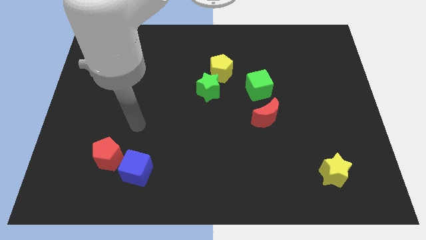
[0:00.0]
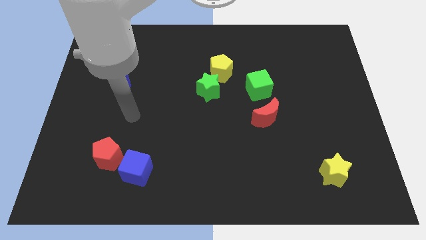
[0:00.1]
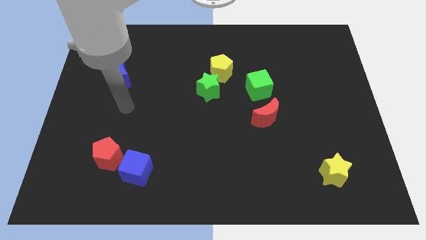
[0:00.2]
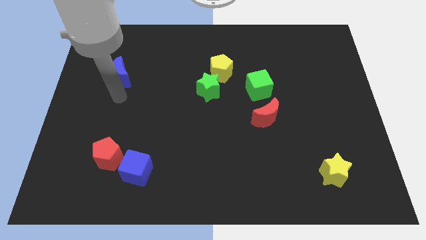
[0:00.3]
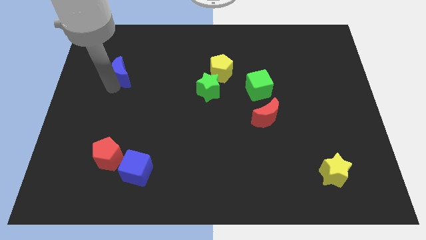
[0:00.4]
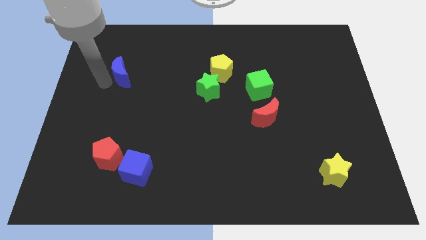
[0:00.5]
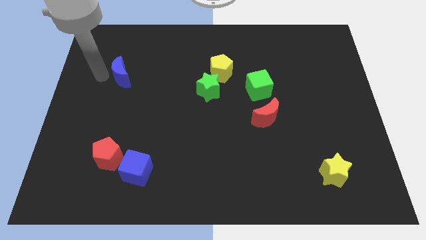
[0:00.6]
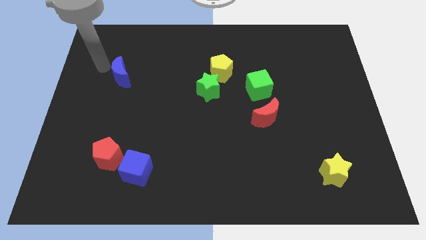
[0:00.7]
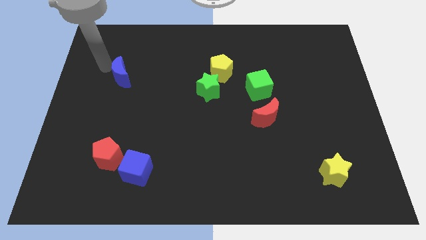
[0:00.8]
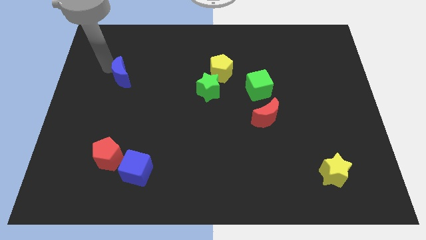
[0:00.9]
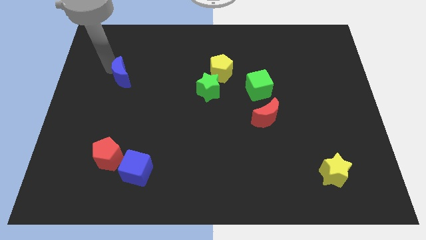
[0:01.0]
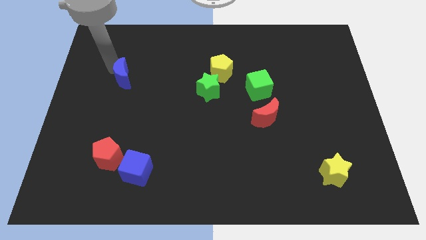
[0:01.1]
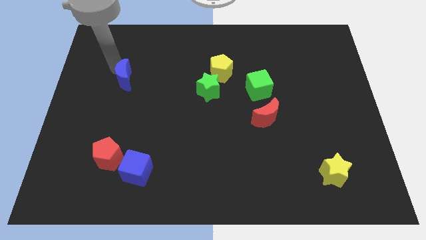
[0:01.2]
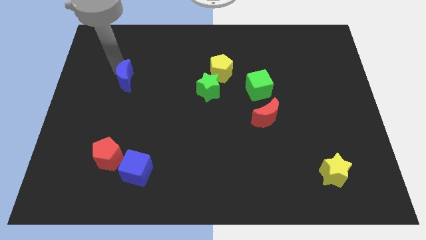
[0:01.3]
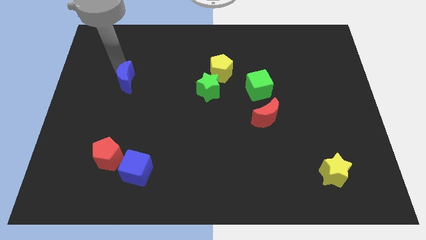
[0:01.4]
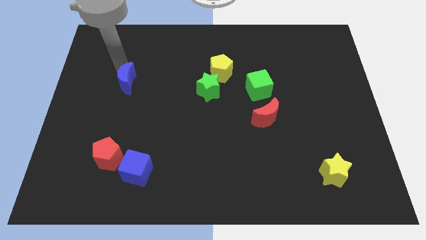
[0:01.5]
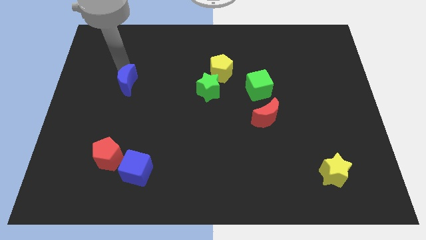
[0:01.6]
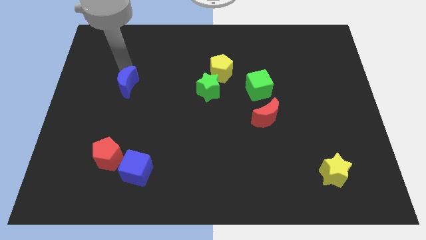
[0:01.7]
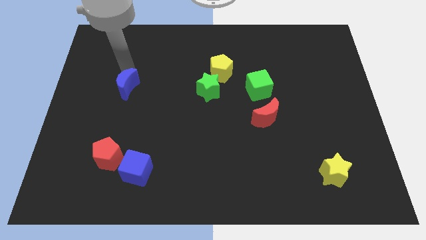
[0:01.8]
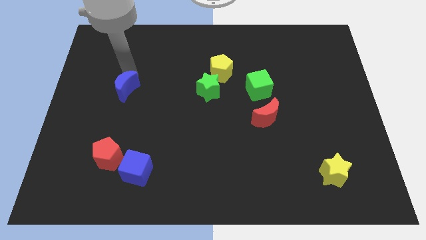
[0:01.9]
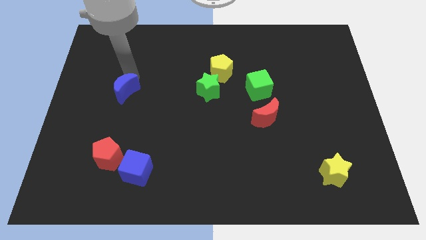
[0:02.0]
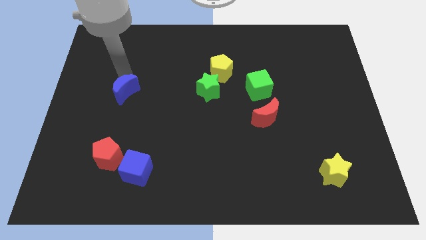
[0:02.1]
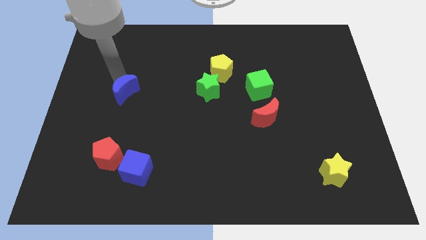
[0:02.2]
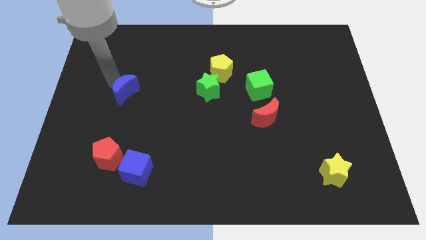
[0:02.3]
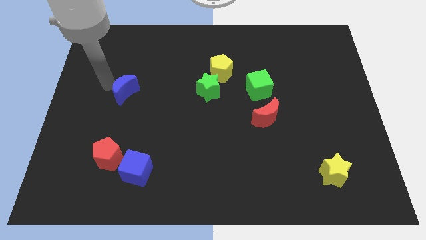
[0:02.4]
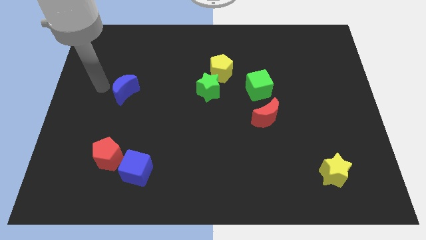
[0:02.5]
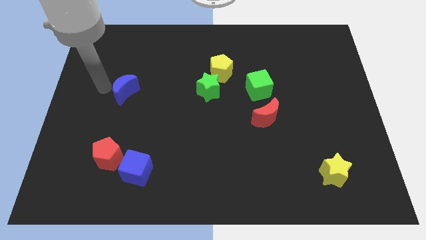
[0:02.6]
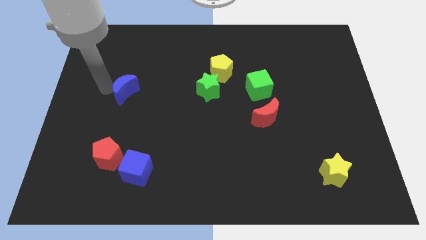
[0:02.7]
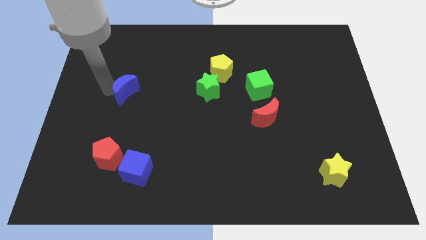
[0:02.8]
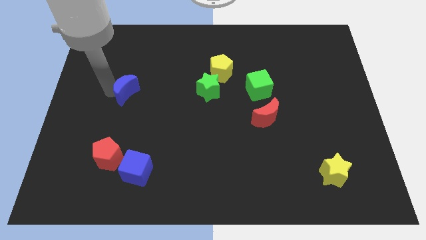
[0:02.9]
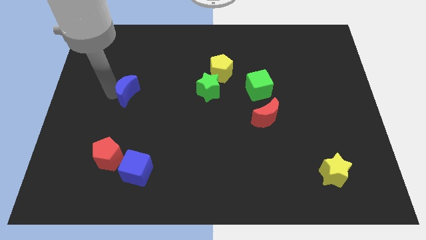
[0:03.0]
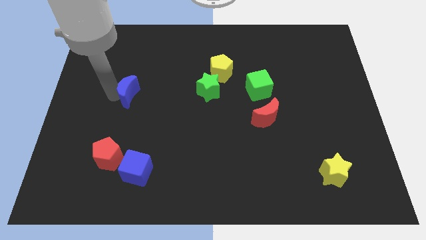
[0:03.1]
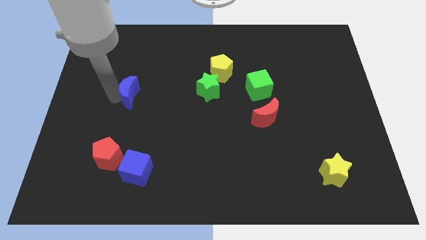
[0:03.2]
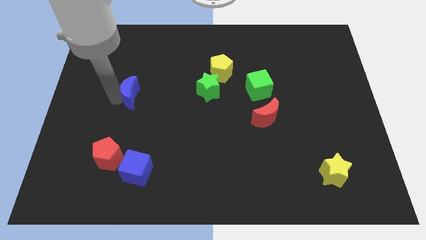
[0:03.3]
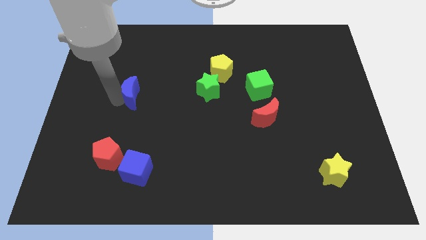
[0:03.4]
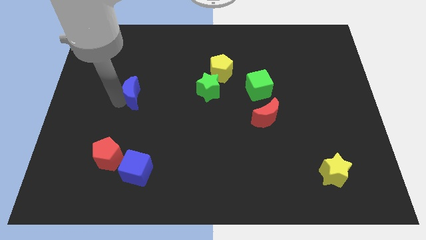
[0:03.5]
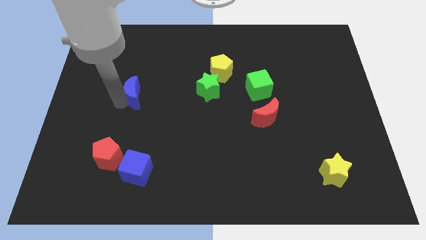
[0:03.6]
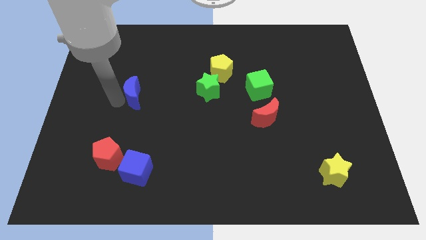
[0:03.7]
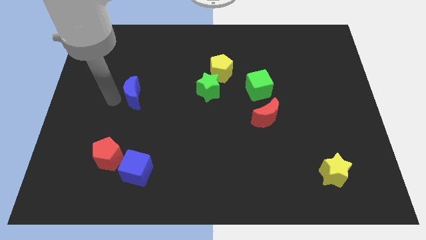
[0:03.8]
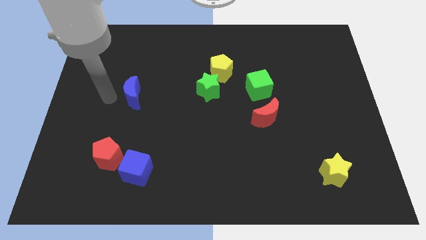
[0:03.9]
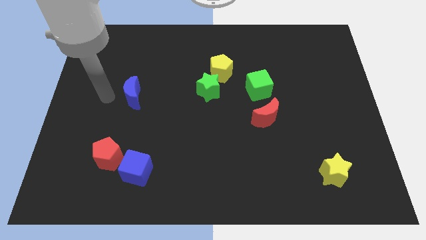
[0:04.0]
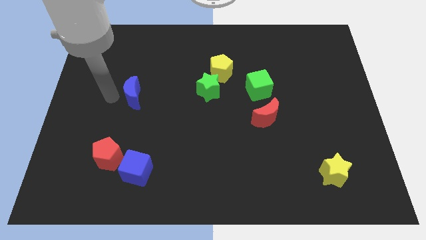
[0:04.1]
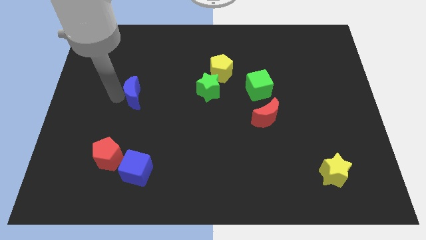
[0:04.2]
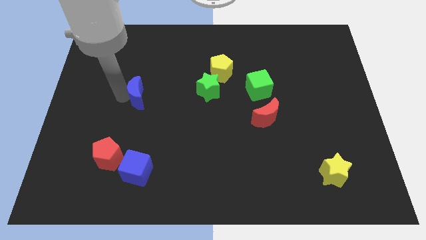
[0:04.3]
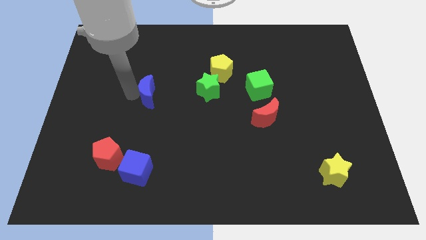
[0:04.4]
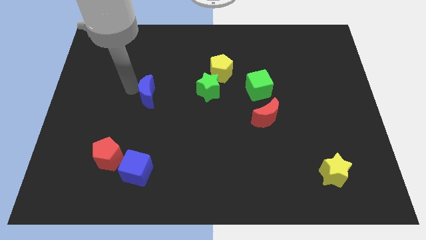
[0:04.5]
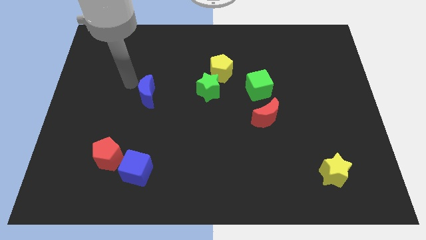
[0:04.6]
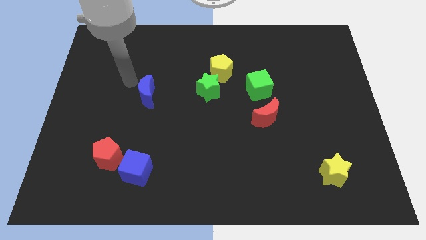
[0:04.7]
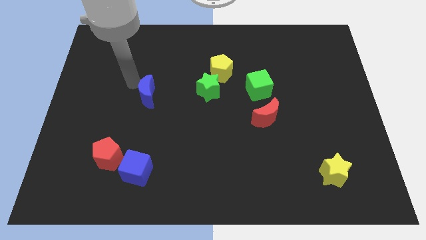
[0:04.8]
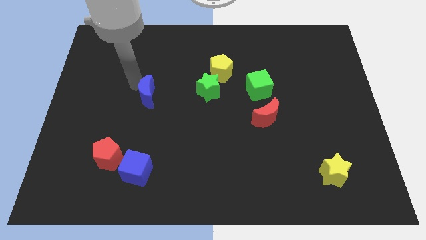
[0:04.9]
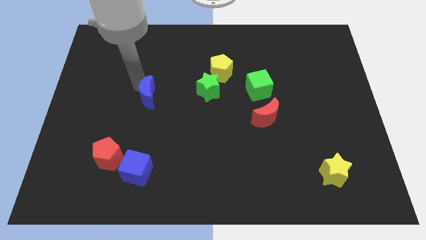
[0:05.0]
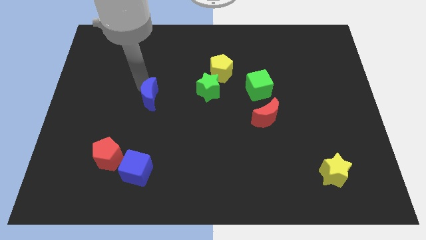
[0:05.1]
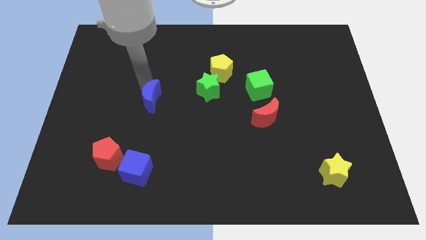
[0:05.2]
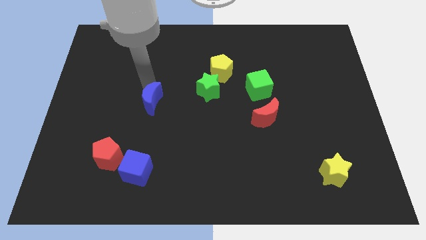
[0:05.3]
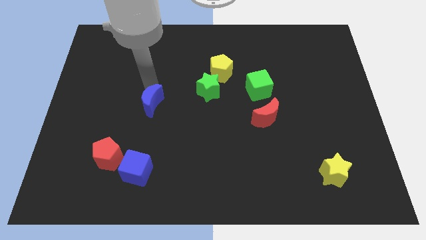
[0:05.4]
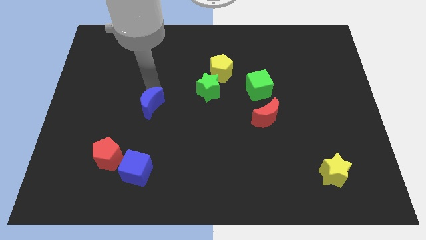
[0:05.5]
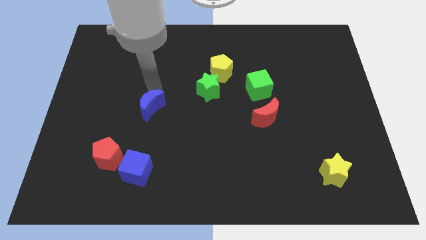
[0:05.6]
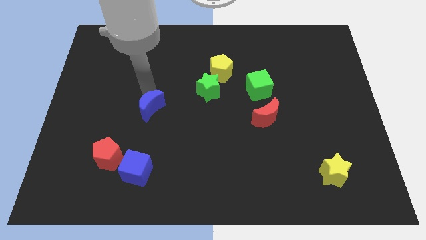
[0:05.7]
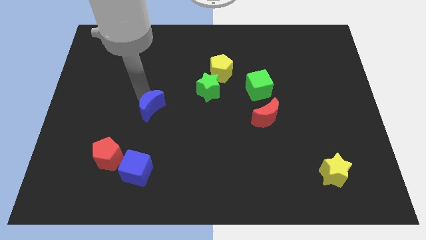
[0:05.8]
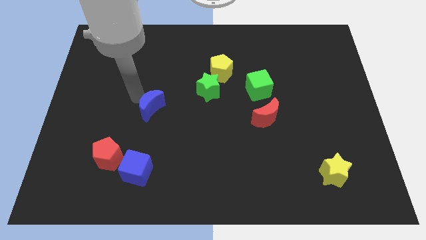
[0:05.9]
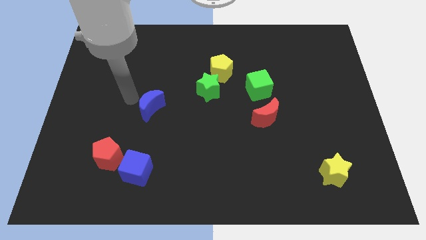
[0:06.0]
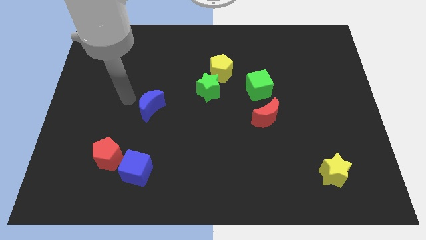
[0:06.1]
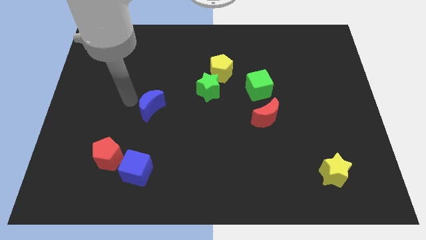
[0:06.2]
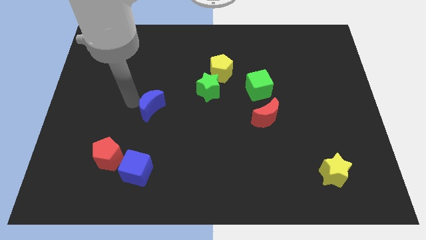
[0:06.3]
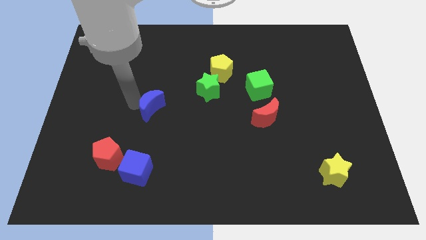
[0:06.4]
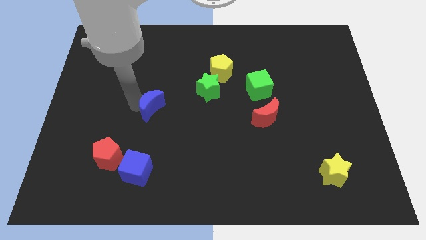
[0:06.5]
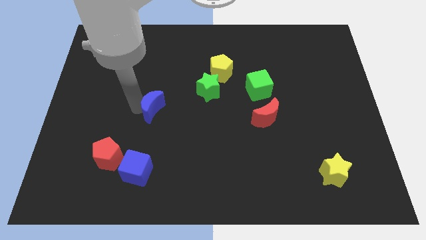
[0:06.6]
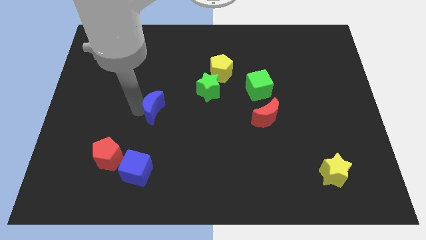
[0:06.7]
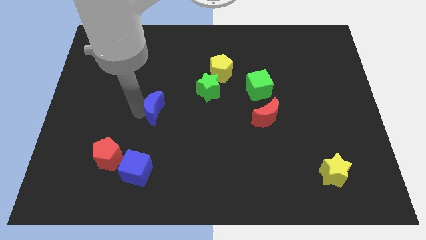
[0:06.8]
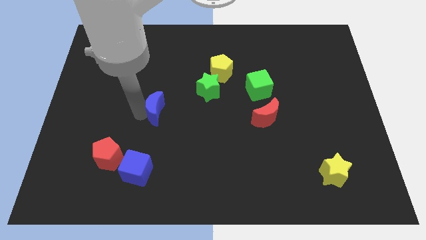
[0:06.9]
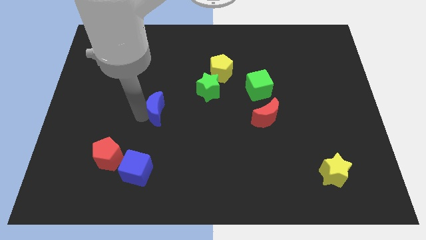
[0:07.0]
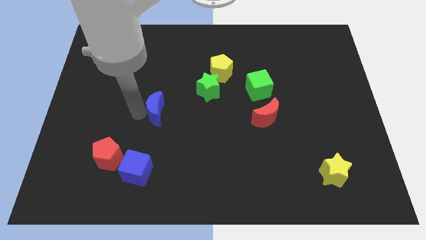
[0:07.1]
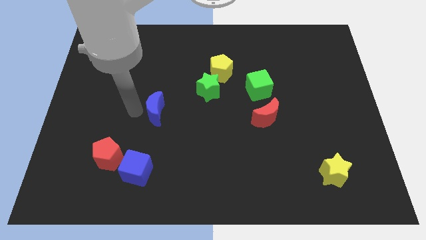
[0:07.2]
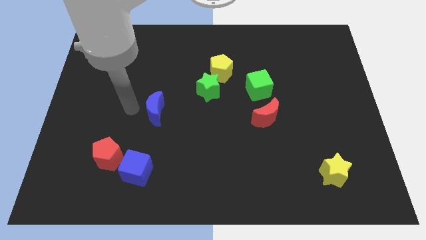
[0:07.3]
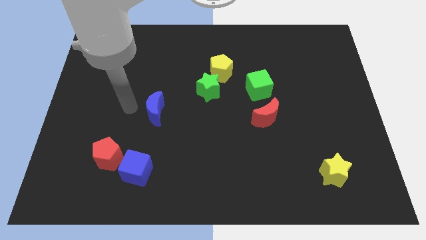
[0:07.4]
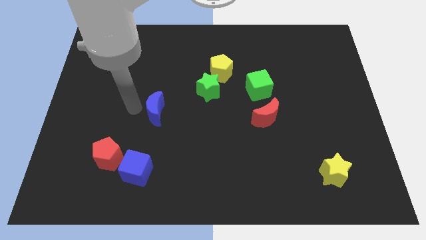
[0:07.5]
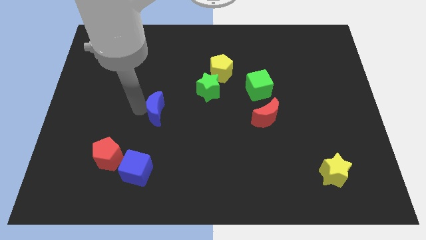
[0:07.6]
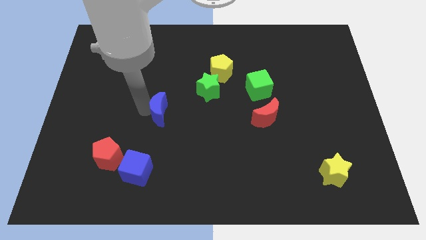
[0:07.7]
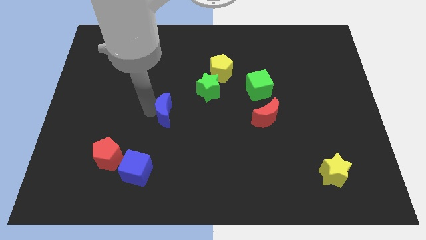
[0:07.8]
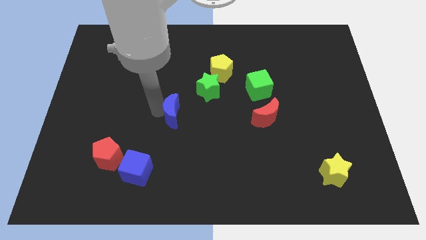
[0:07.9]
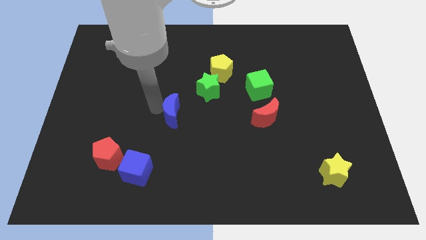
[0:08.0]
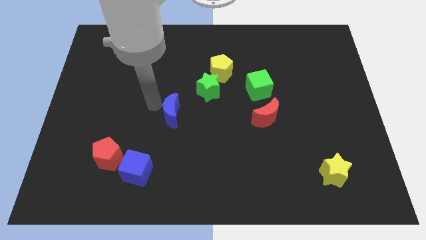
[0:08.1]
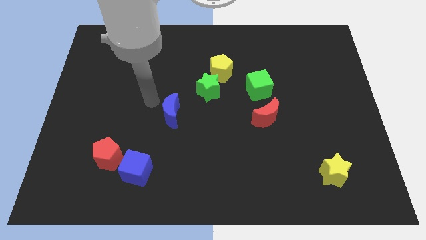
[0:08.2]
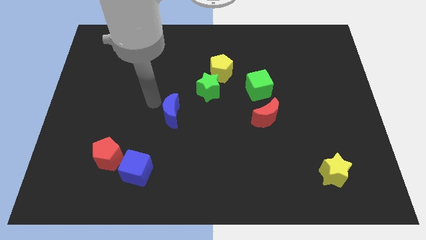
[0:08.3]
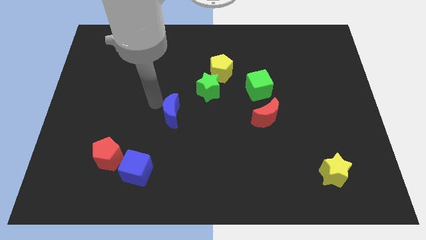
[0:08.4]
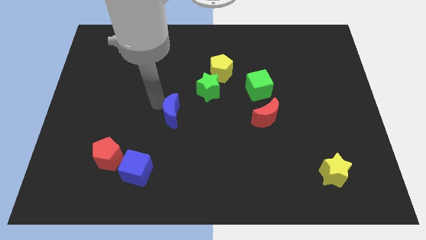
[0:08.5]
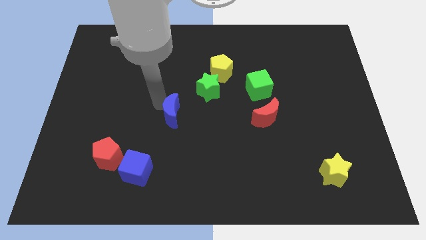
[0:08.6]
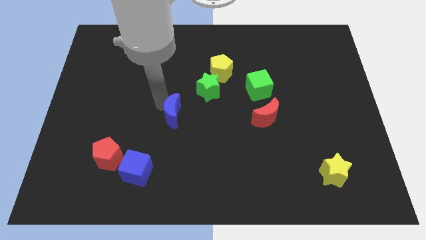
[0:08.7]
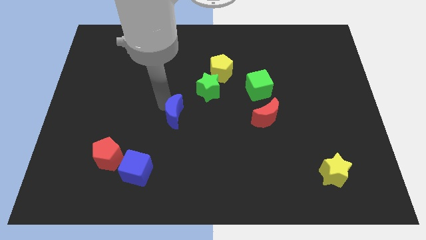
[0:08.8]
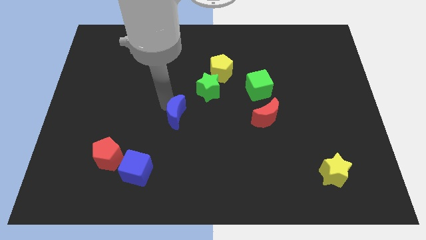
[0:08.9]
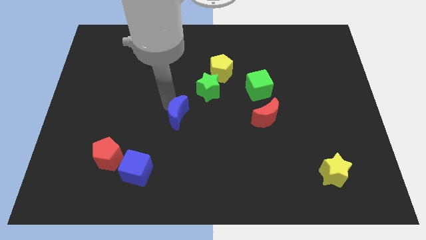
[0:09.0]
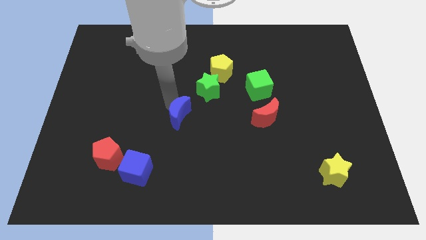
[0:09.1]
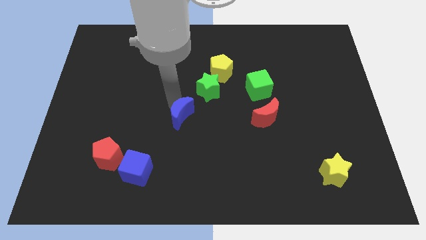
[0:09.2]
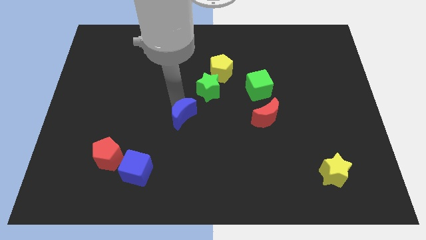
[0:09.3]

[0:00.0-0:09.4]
slide the blue moon down and right diagonally
